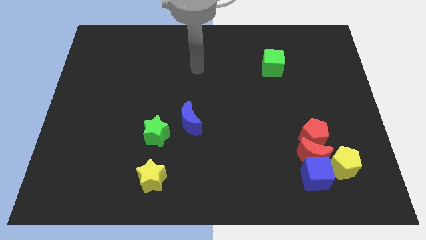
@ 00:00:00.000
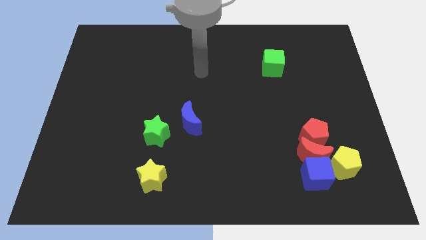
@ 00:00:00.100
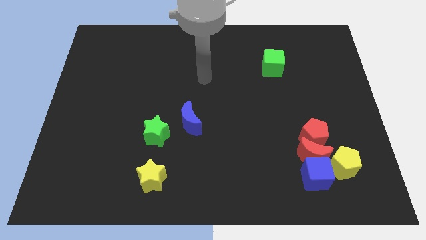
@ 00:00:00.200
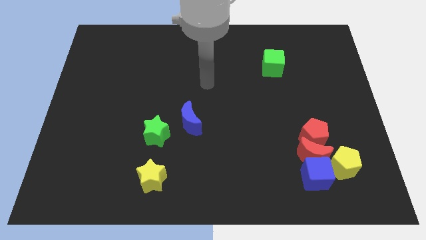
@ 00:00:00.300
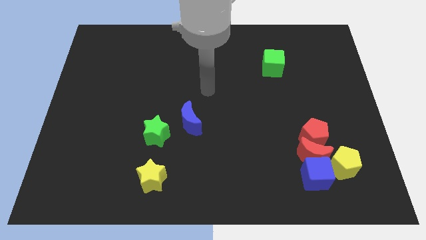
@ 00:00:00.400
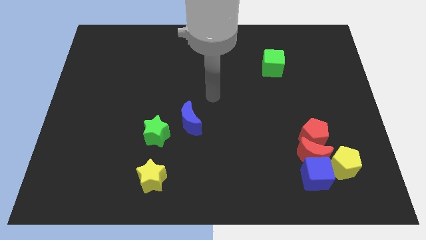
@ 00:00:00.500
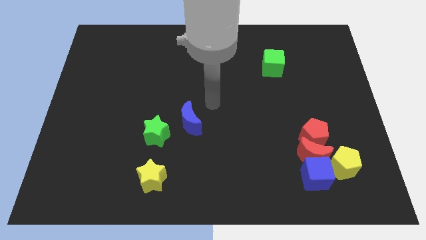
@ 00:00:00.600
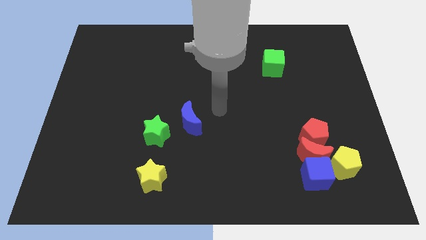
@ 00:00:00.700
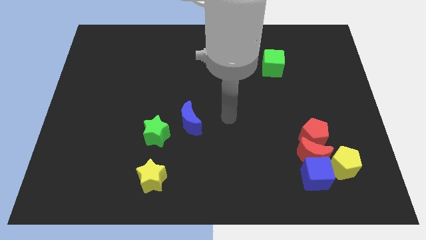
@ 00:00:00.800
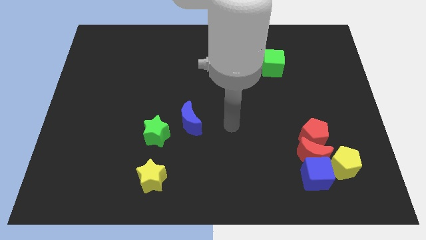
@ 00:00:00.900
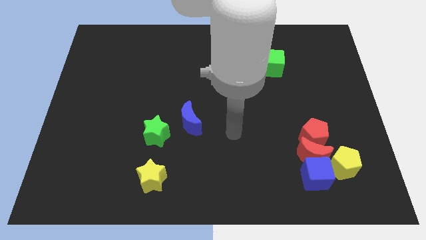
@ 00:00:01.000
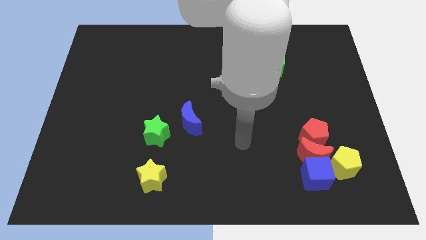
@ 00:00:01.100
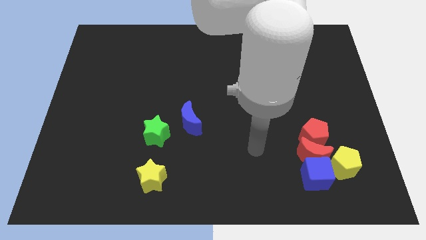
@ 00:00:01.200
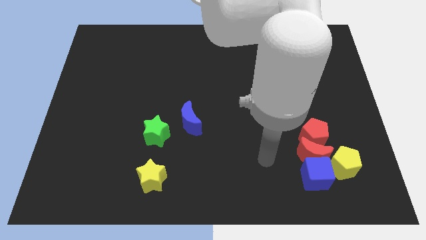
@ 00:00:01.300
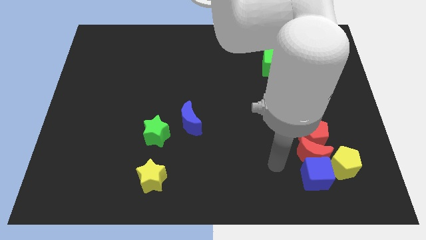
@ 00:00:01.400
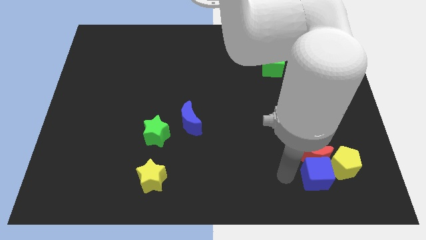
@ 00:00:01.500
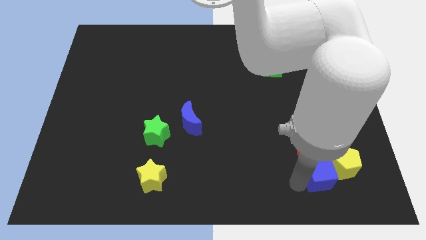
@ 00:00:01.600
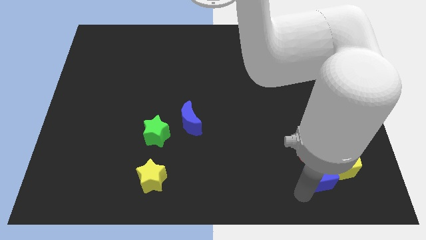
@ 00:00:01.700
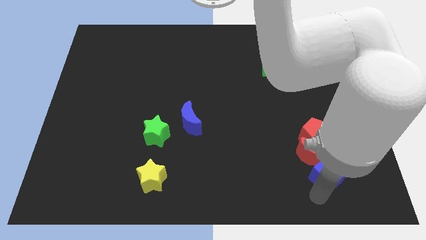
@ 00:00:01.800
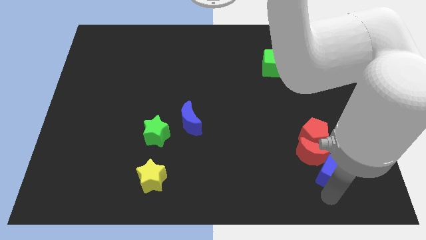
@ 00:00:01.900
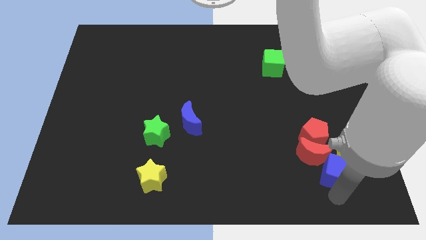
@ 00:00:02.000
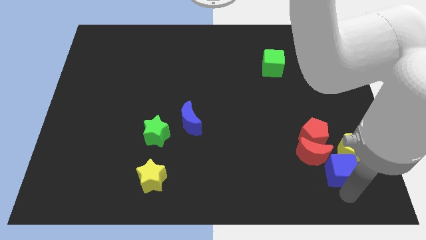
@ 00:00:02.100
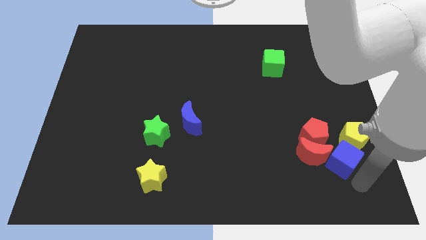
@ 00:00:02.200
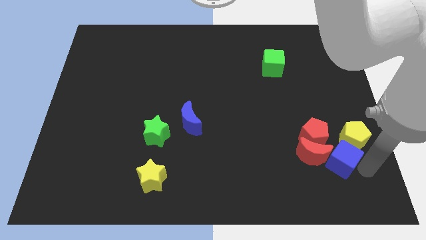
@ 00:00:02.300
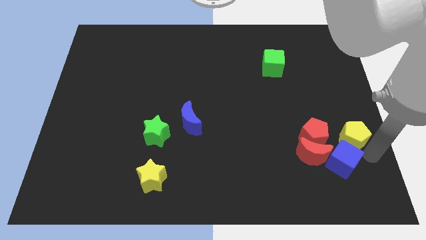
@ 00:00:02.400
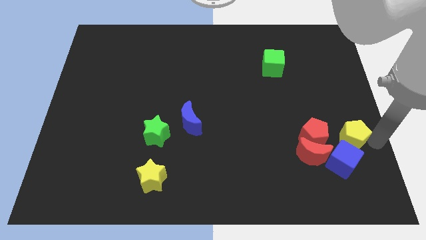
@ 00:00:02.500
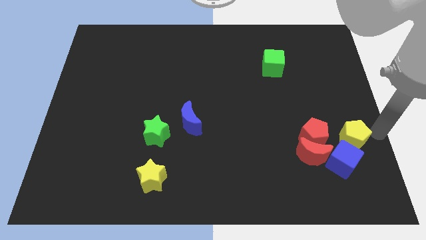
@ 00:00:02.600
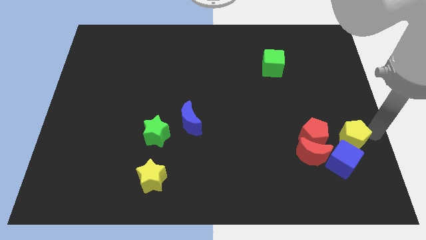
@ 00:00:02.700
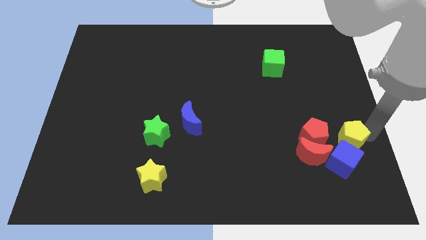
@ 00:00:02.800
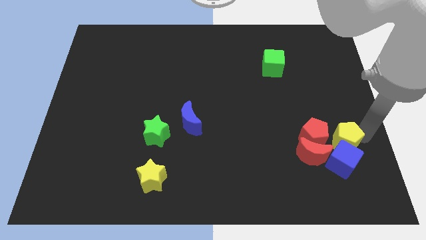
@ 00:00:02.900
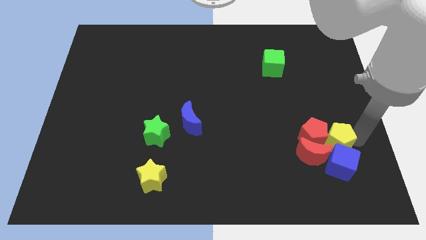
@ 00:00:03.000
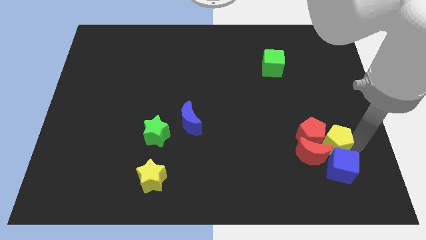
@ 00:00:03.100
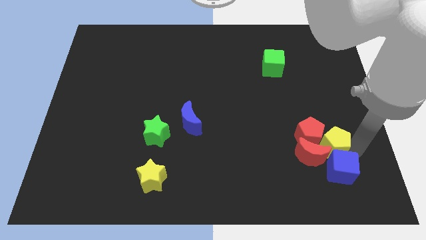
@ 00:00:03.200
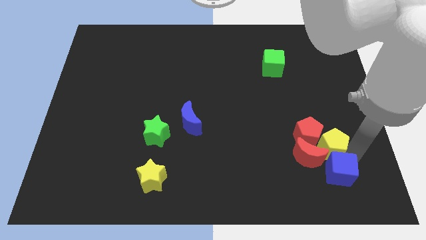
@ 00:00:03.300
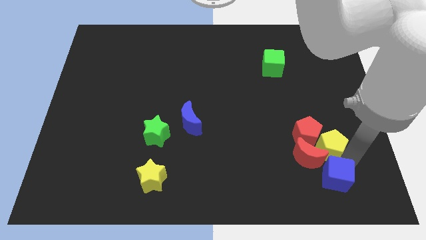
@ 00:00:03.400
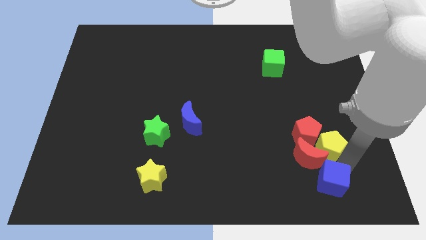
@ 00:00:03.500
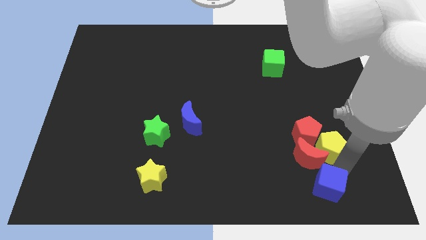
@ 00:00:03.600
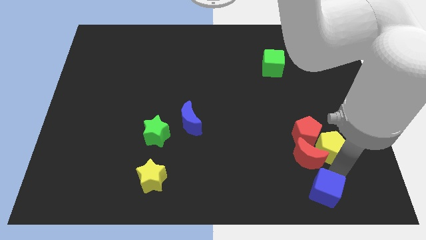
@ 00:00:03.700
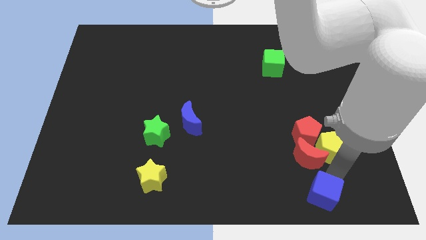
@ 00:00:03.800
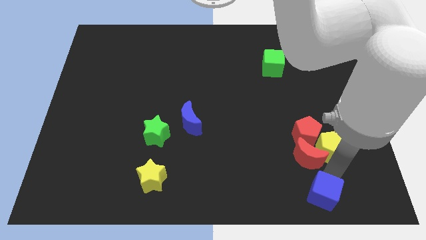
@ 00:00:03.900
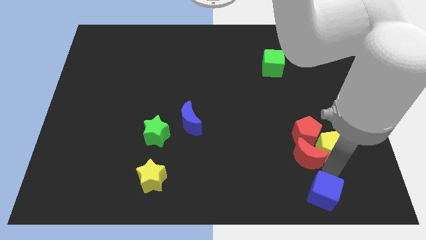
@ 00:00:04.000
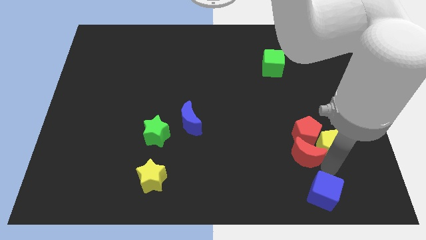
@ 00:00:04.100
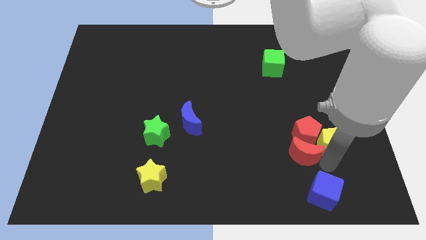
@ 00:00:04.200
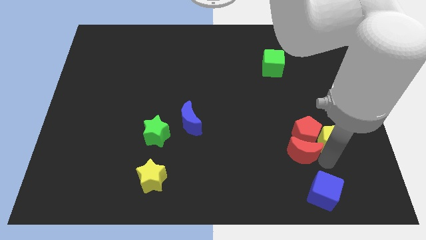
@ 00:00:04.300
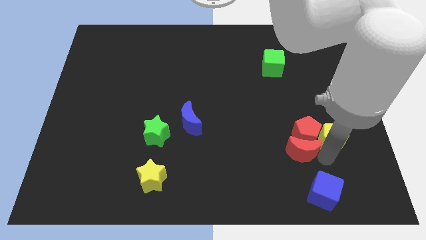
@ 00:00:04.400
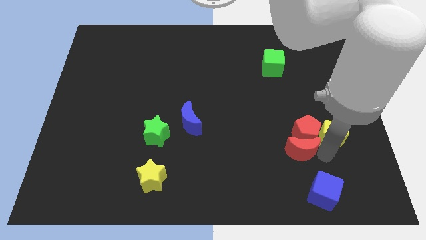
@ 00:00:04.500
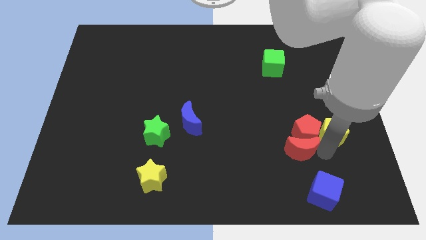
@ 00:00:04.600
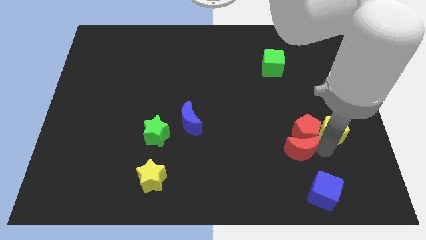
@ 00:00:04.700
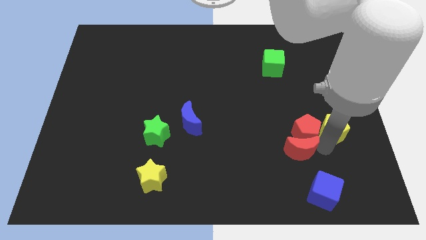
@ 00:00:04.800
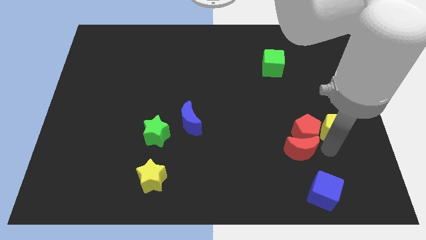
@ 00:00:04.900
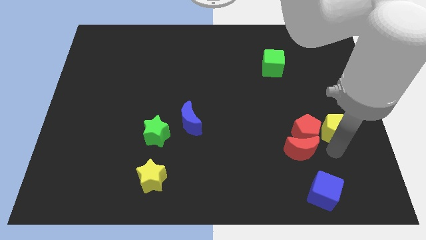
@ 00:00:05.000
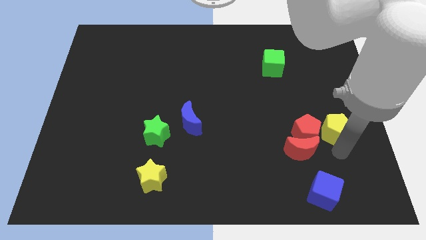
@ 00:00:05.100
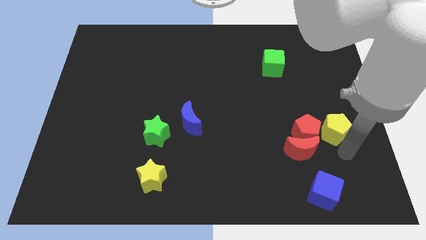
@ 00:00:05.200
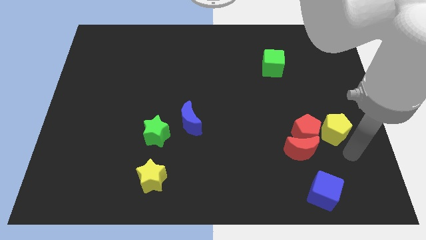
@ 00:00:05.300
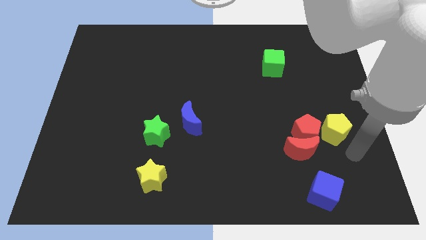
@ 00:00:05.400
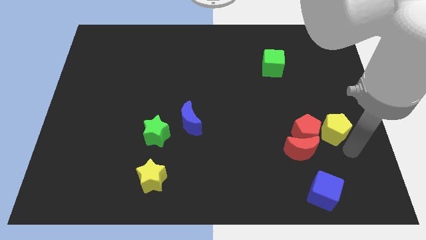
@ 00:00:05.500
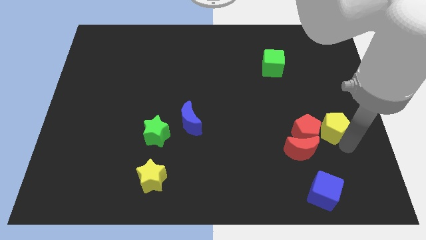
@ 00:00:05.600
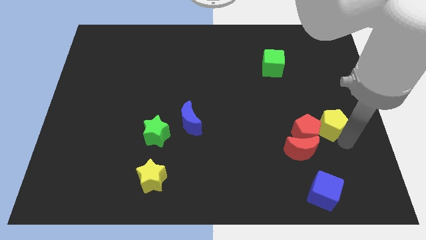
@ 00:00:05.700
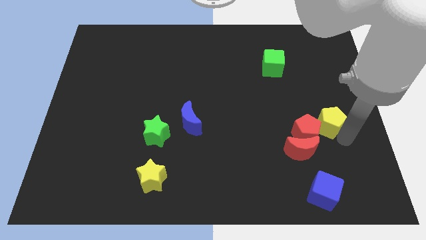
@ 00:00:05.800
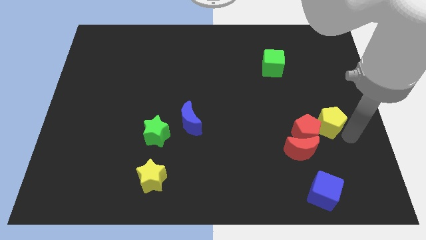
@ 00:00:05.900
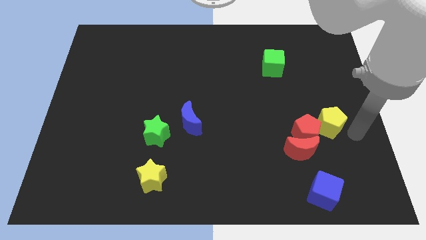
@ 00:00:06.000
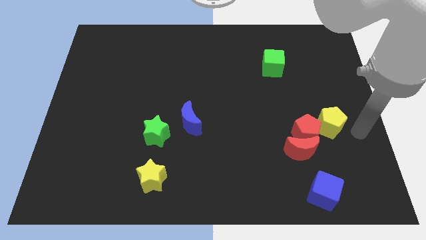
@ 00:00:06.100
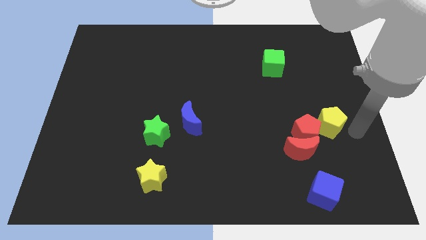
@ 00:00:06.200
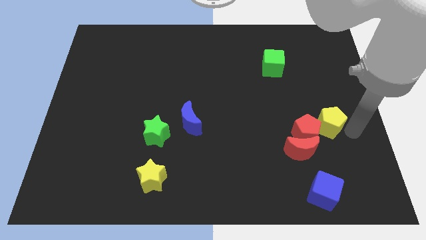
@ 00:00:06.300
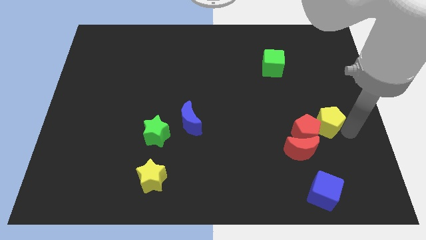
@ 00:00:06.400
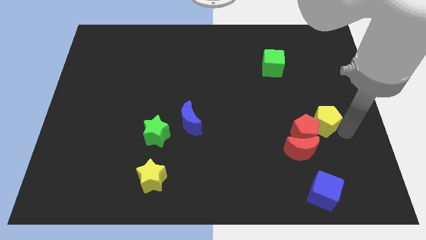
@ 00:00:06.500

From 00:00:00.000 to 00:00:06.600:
slide the yellow pentagon diagonally upwards and left somewhat

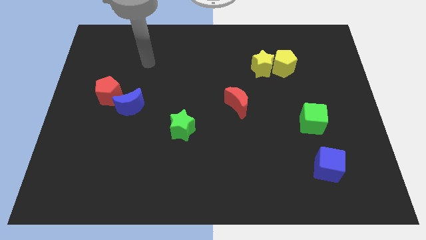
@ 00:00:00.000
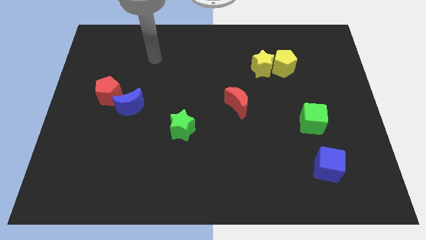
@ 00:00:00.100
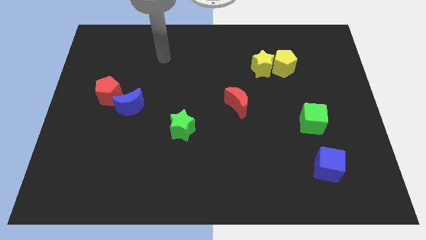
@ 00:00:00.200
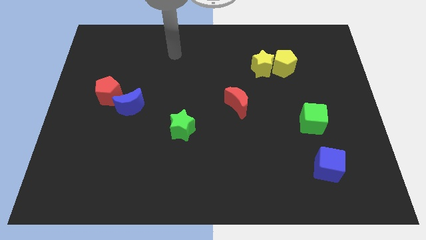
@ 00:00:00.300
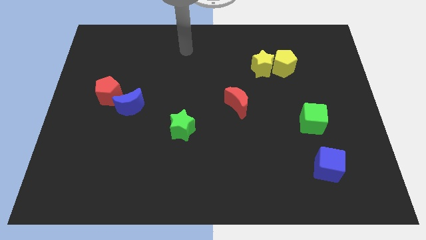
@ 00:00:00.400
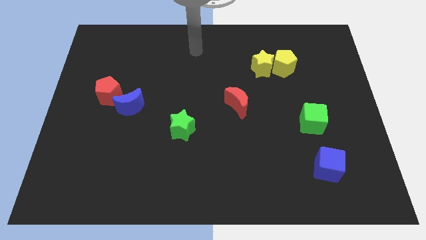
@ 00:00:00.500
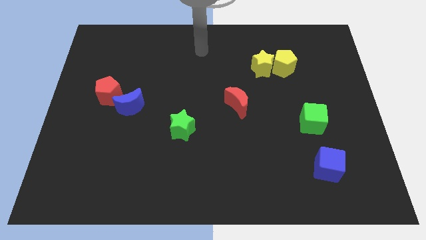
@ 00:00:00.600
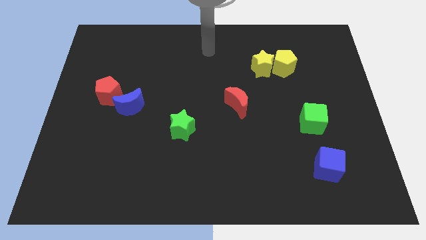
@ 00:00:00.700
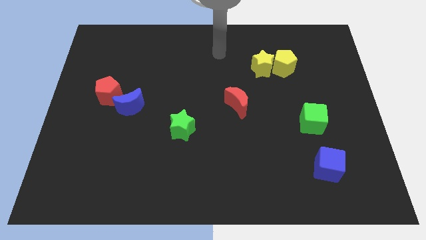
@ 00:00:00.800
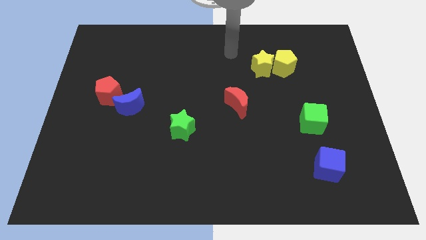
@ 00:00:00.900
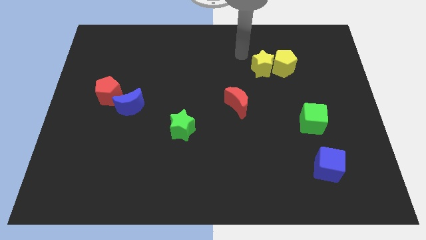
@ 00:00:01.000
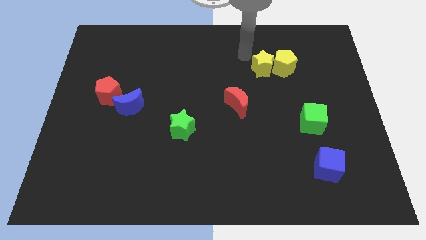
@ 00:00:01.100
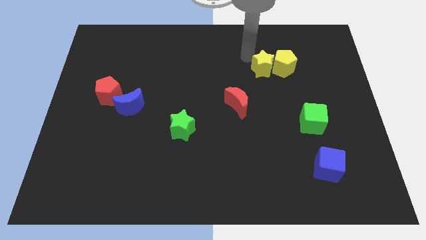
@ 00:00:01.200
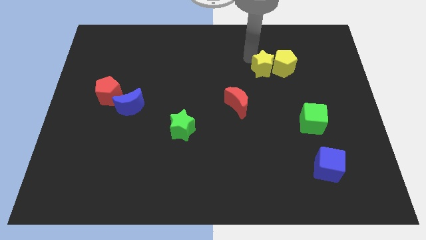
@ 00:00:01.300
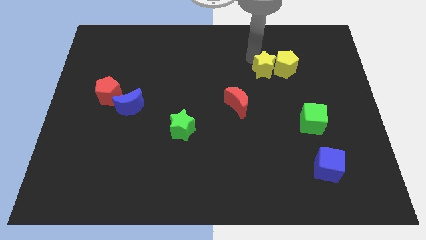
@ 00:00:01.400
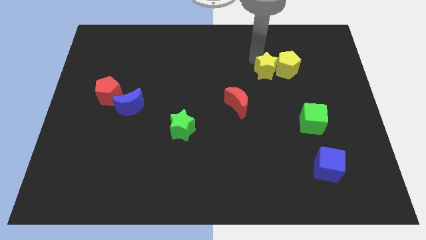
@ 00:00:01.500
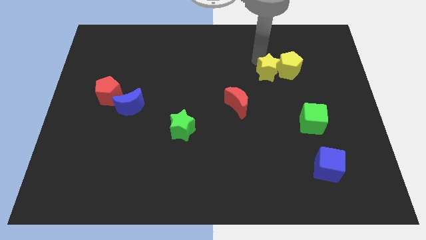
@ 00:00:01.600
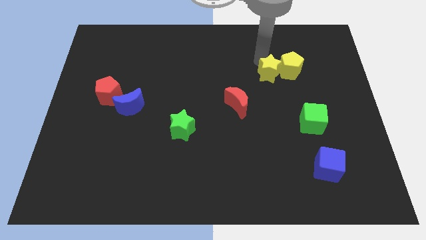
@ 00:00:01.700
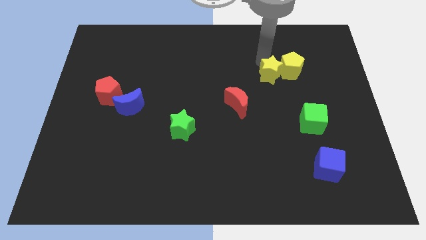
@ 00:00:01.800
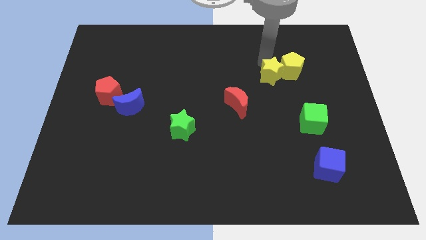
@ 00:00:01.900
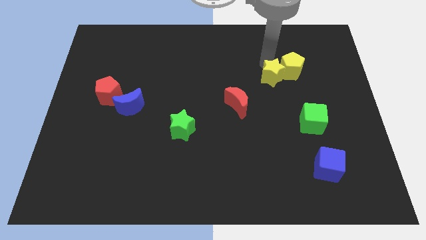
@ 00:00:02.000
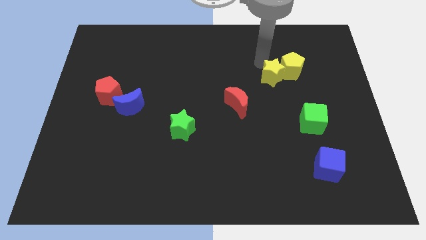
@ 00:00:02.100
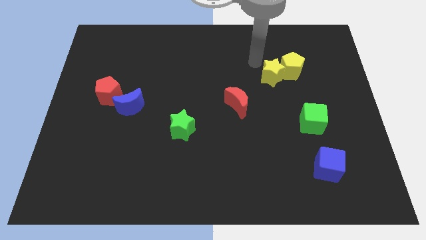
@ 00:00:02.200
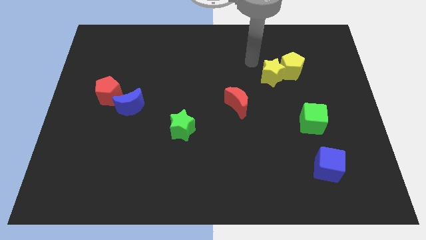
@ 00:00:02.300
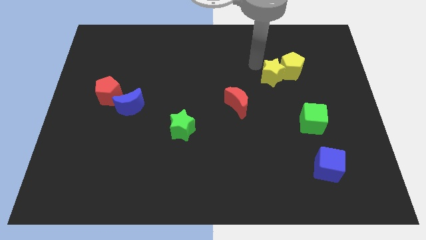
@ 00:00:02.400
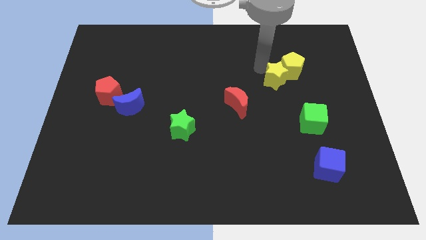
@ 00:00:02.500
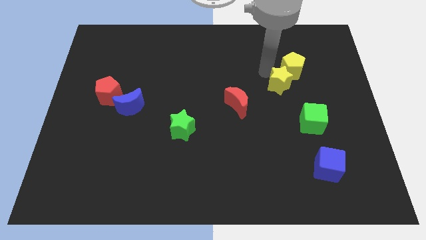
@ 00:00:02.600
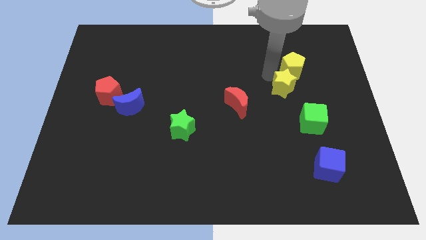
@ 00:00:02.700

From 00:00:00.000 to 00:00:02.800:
slightly push the yellow star diagonally down and right
